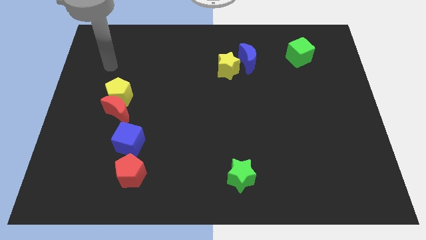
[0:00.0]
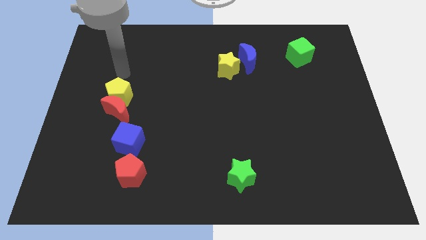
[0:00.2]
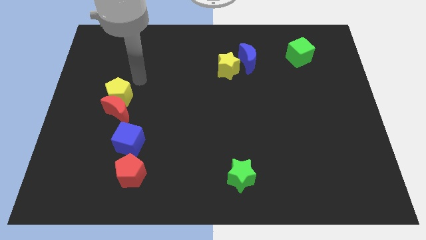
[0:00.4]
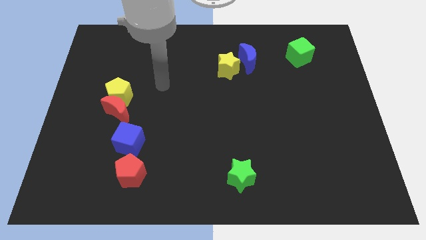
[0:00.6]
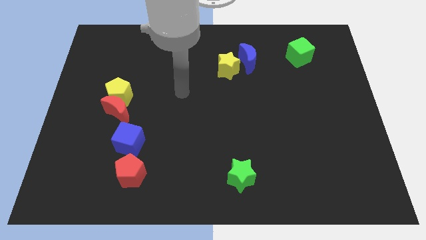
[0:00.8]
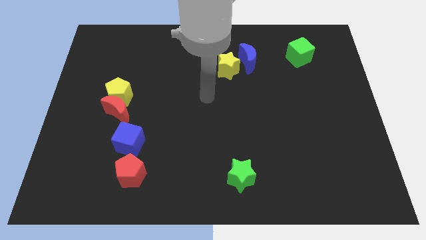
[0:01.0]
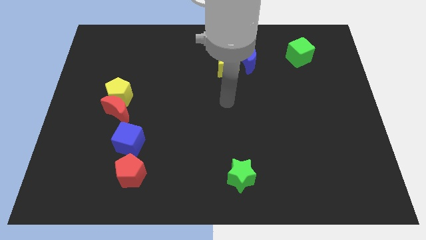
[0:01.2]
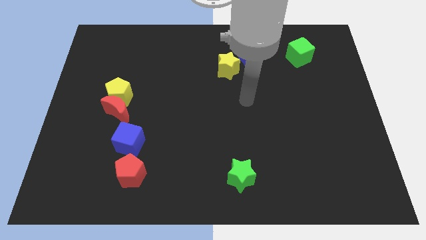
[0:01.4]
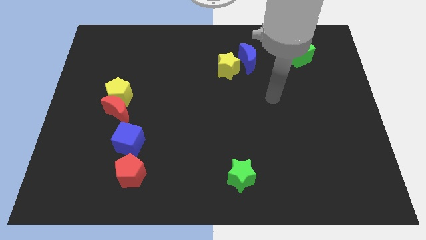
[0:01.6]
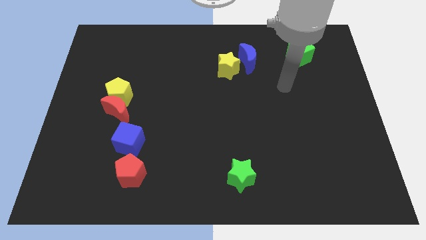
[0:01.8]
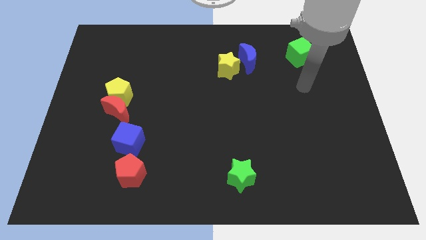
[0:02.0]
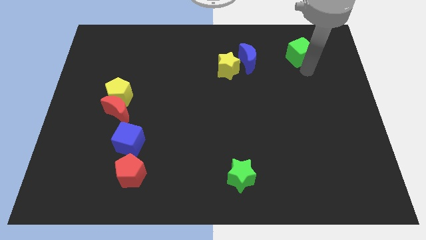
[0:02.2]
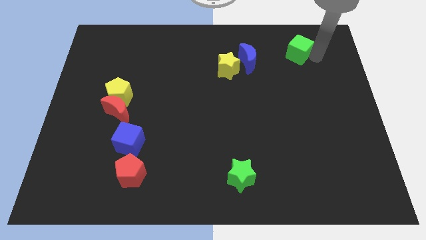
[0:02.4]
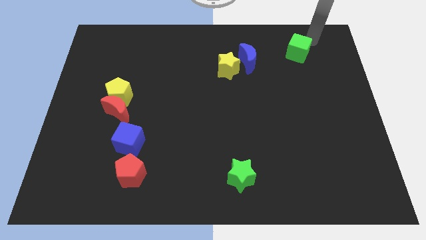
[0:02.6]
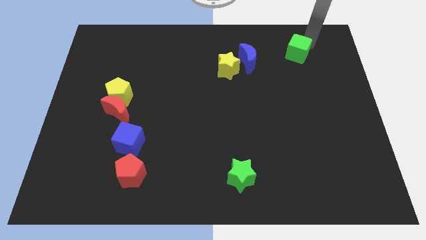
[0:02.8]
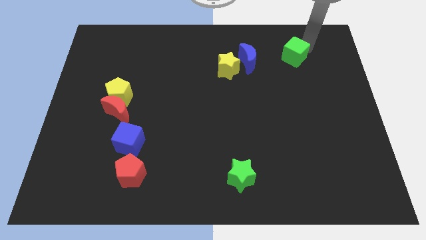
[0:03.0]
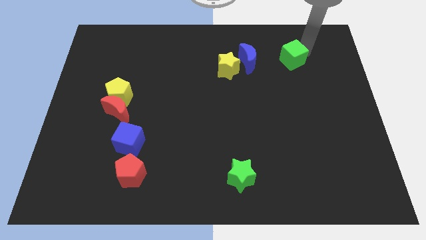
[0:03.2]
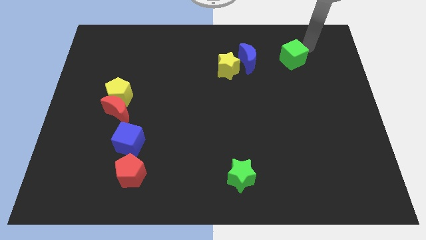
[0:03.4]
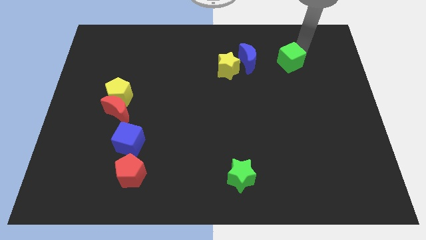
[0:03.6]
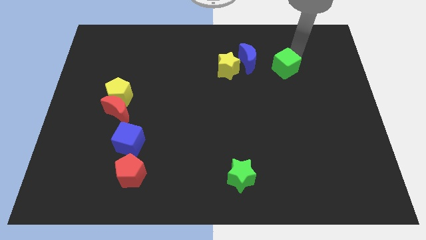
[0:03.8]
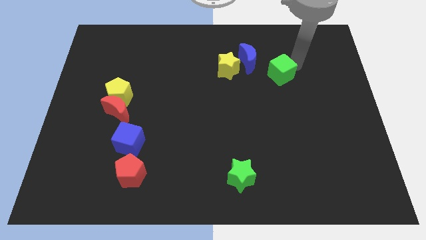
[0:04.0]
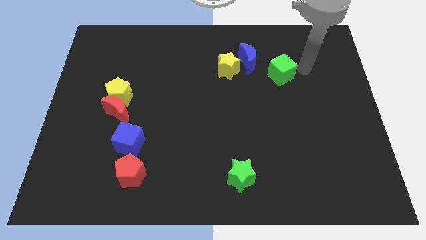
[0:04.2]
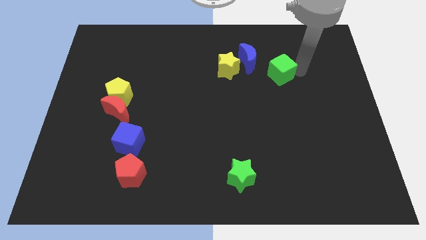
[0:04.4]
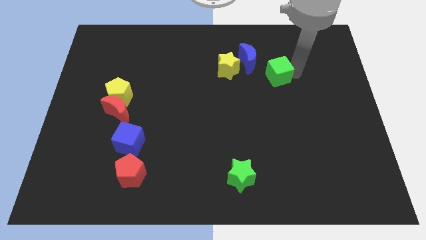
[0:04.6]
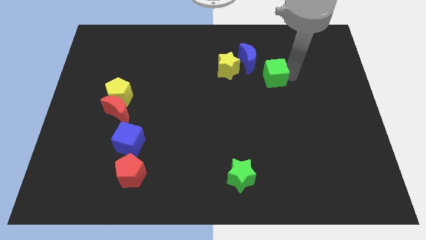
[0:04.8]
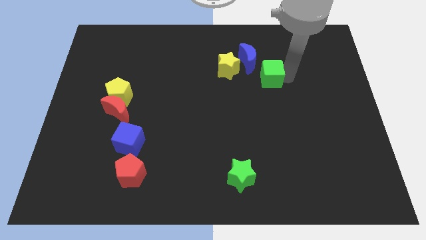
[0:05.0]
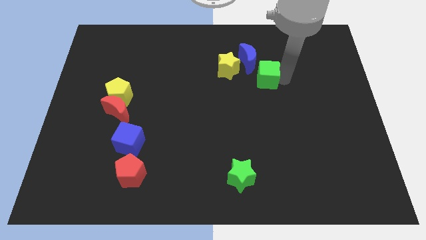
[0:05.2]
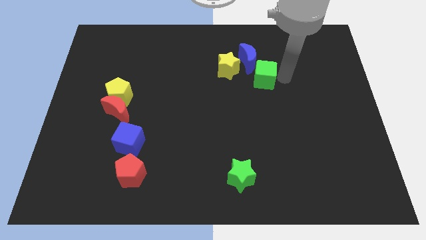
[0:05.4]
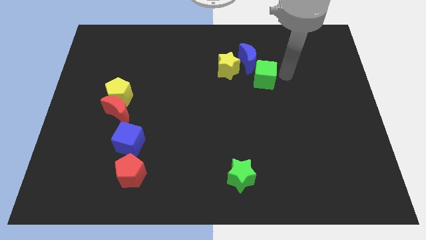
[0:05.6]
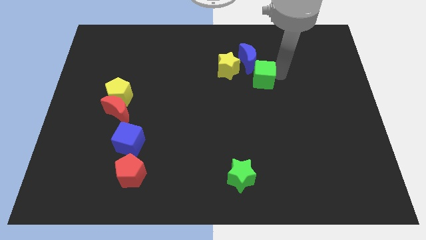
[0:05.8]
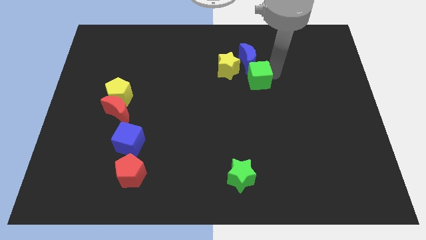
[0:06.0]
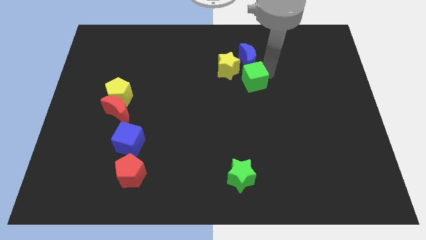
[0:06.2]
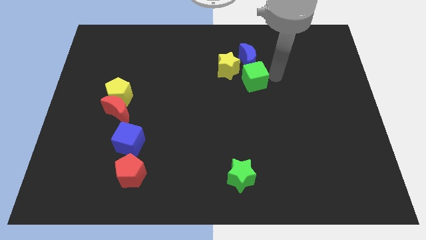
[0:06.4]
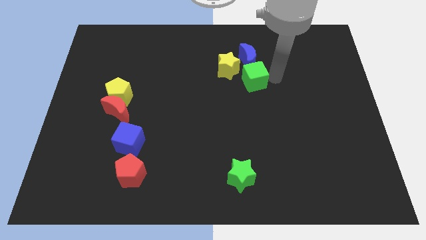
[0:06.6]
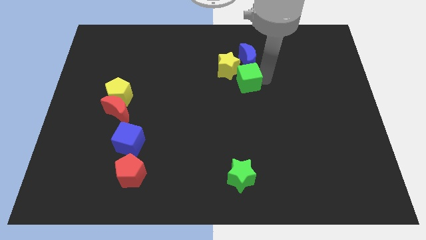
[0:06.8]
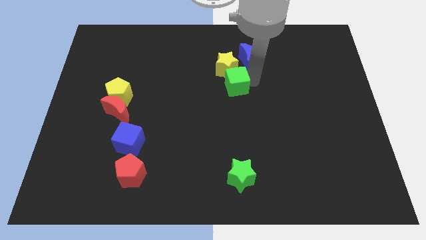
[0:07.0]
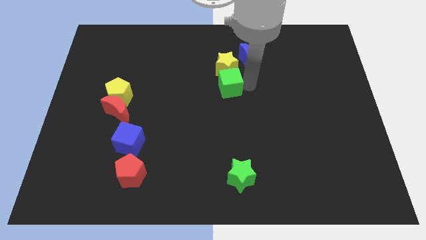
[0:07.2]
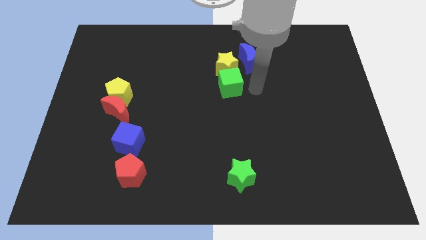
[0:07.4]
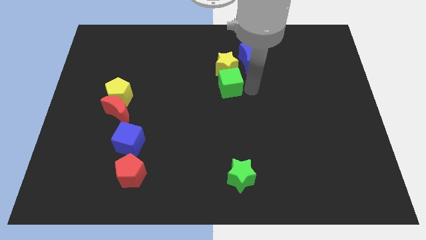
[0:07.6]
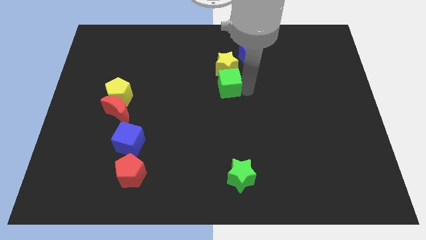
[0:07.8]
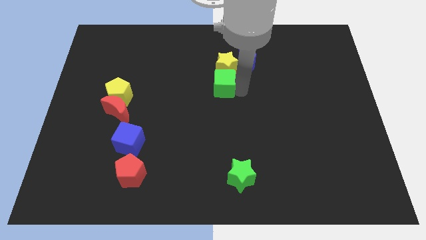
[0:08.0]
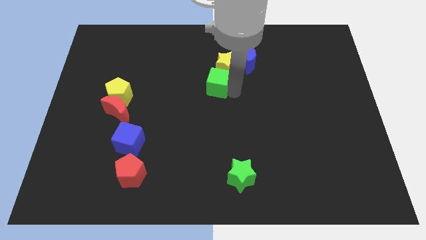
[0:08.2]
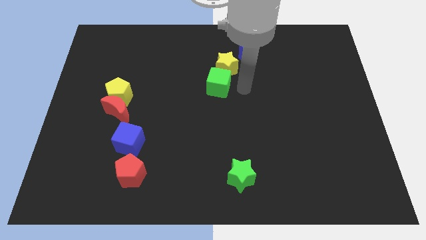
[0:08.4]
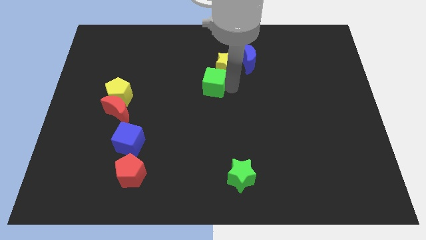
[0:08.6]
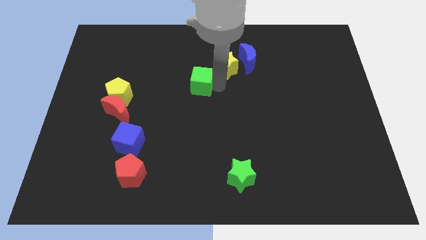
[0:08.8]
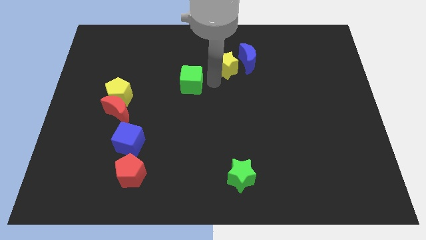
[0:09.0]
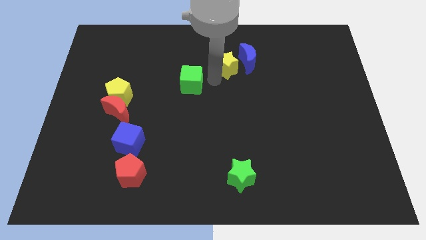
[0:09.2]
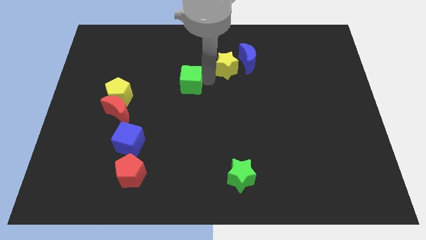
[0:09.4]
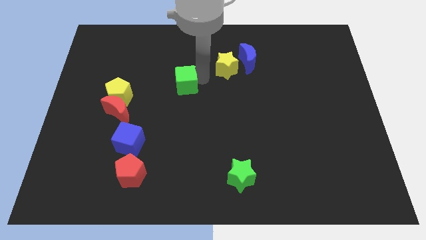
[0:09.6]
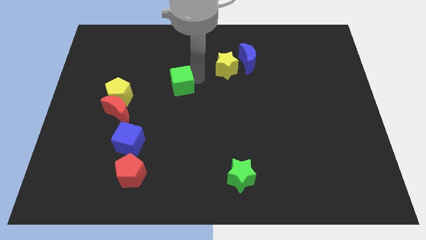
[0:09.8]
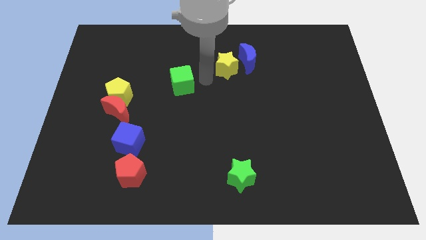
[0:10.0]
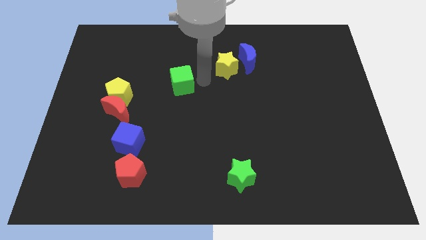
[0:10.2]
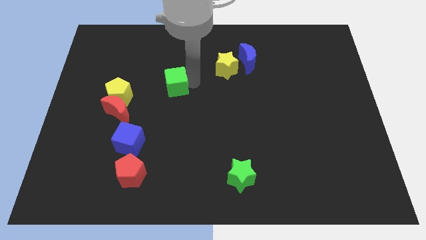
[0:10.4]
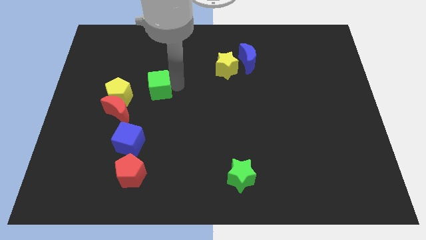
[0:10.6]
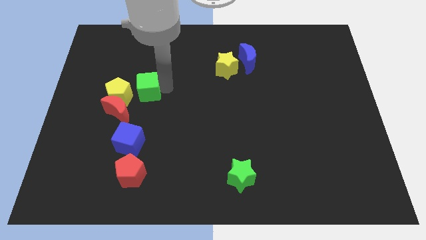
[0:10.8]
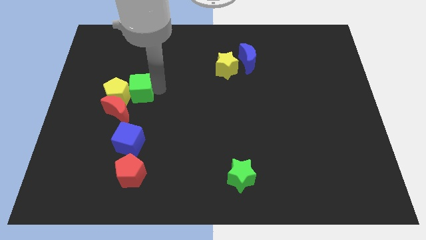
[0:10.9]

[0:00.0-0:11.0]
put the green cube towards the yellow pentagon

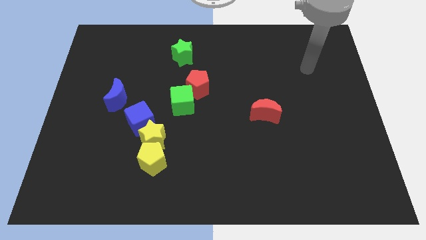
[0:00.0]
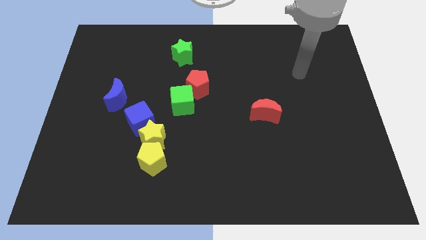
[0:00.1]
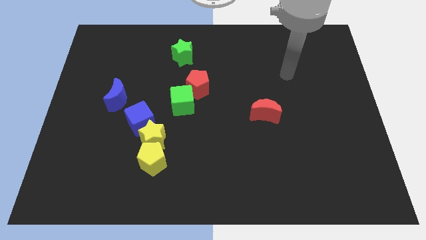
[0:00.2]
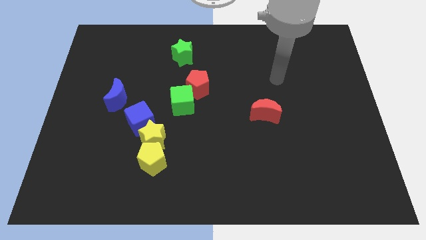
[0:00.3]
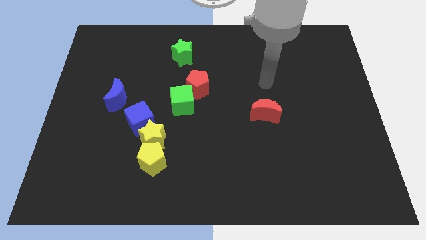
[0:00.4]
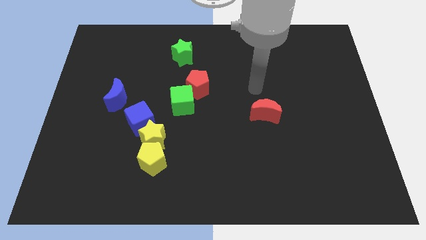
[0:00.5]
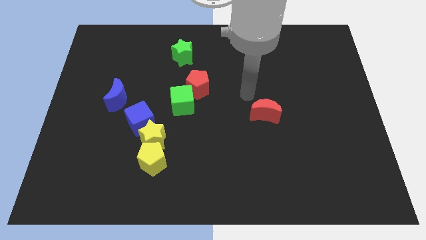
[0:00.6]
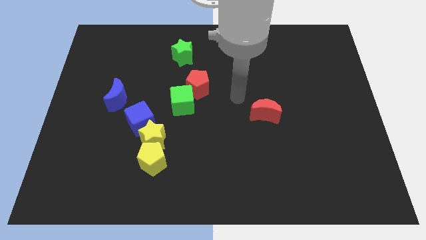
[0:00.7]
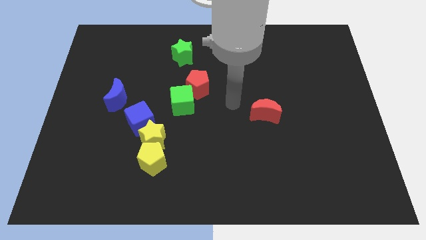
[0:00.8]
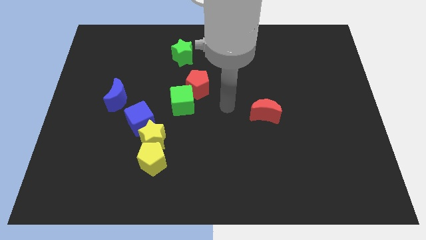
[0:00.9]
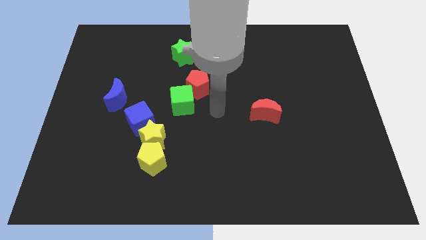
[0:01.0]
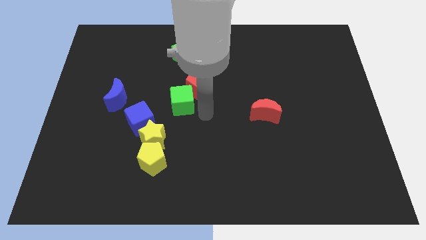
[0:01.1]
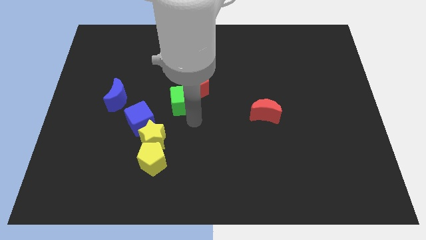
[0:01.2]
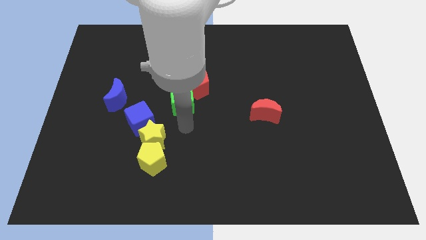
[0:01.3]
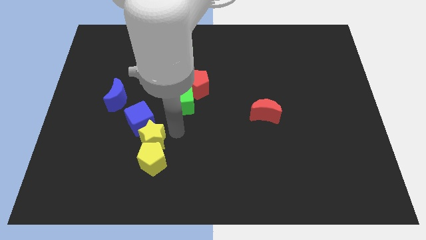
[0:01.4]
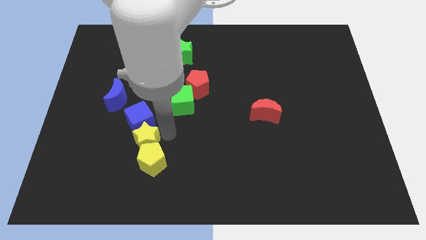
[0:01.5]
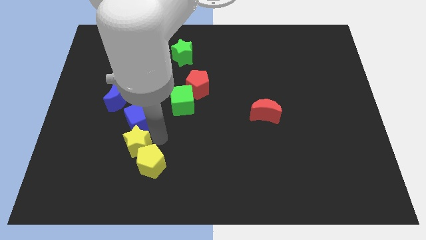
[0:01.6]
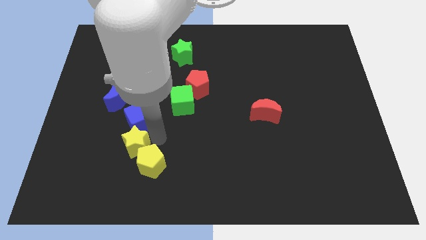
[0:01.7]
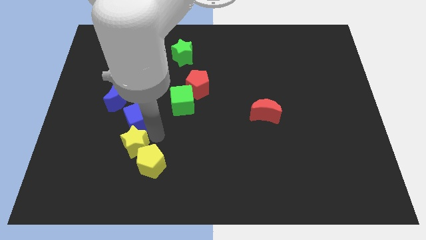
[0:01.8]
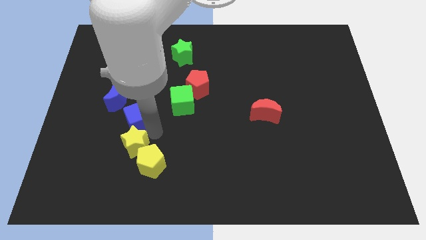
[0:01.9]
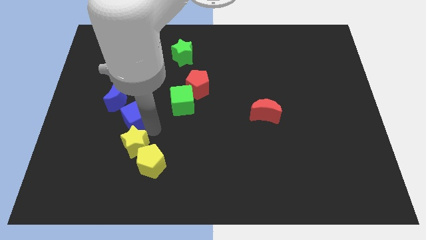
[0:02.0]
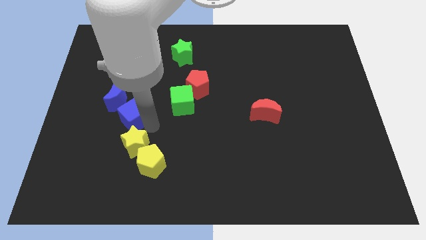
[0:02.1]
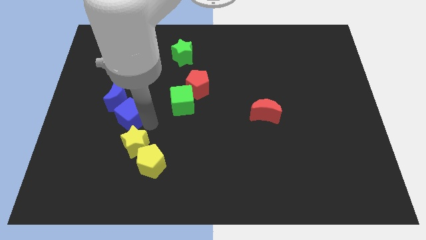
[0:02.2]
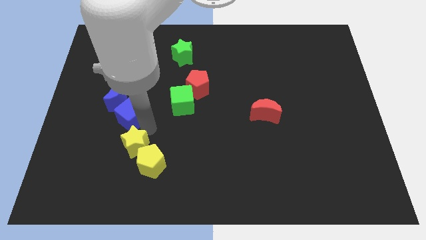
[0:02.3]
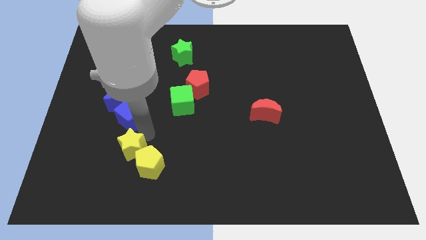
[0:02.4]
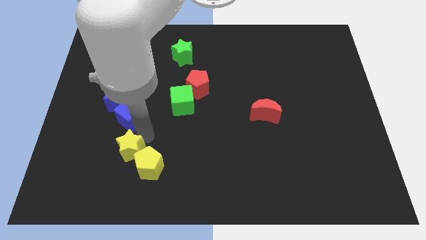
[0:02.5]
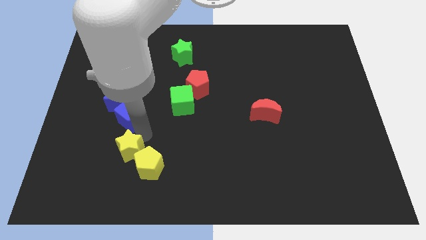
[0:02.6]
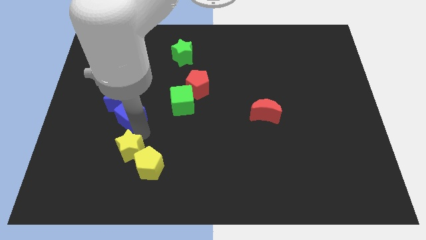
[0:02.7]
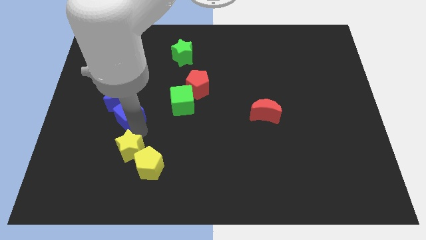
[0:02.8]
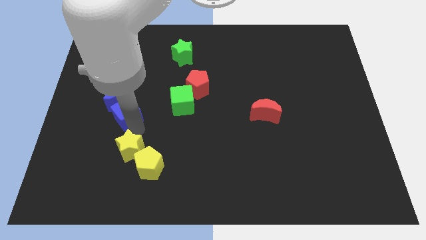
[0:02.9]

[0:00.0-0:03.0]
put the blue cube to the blue moon
